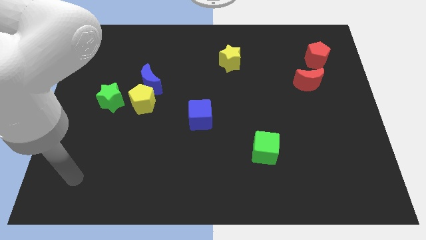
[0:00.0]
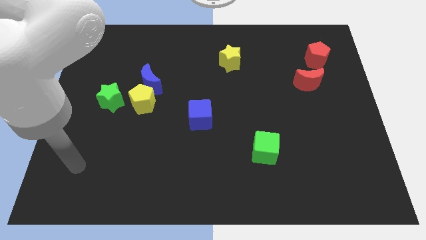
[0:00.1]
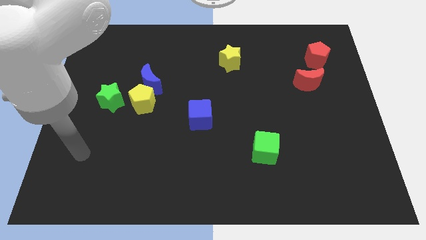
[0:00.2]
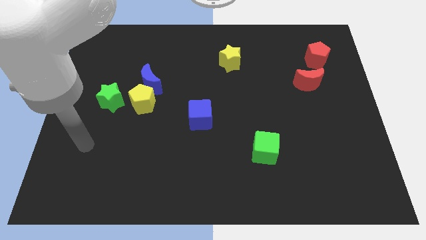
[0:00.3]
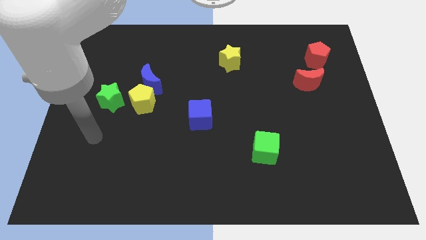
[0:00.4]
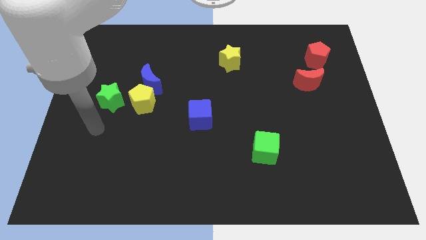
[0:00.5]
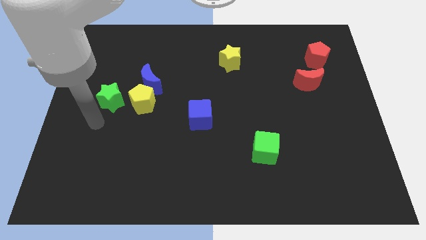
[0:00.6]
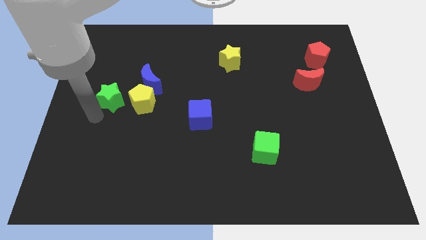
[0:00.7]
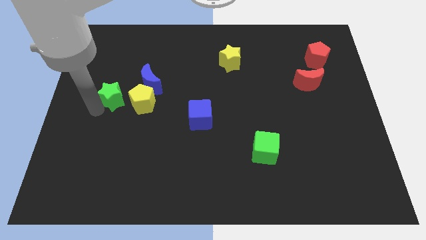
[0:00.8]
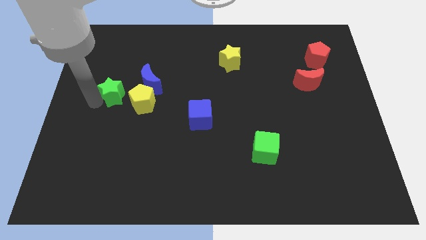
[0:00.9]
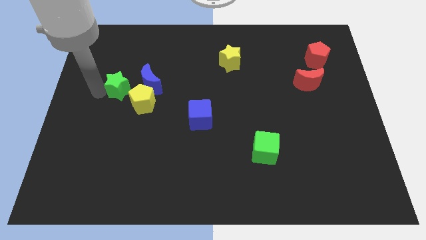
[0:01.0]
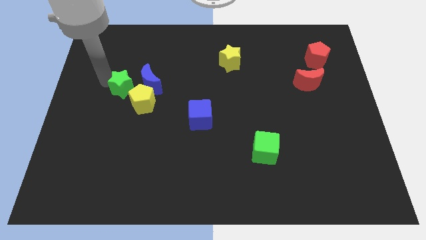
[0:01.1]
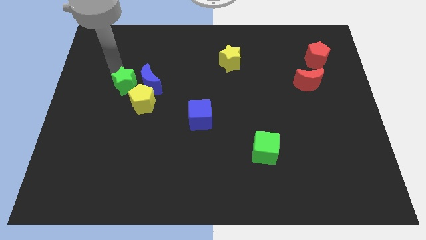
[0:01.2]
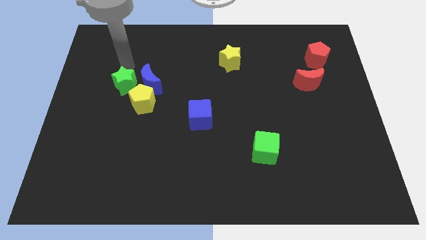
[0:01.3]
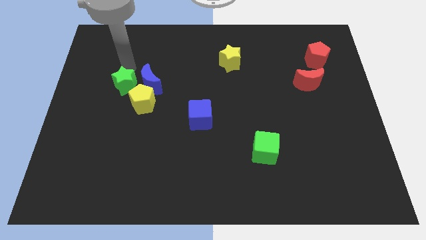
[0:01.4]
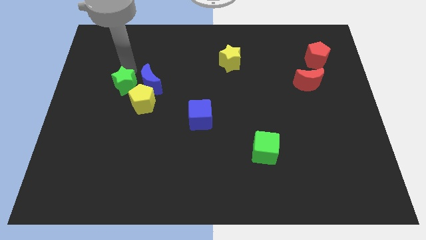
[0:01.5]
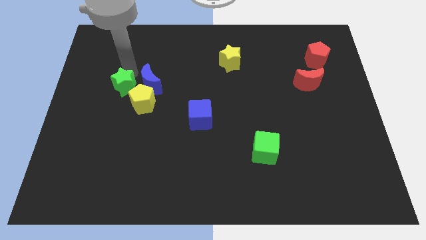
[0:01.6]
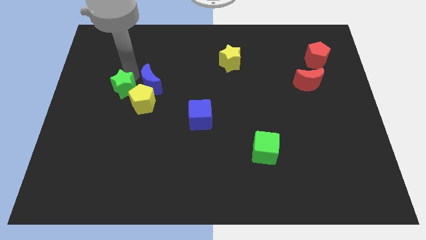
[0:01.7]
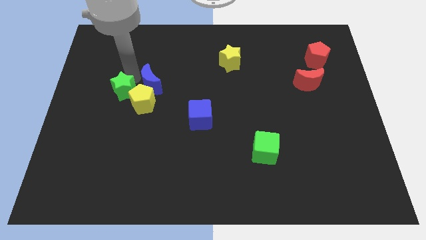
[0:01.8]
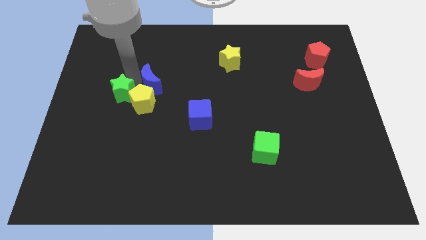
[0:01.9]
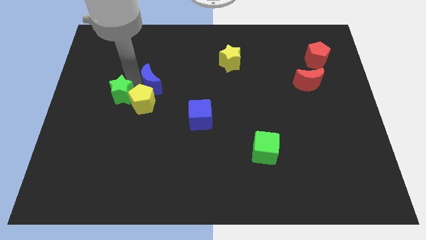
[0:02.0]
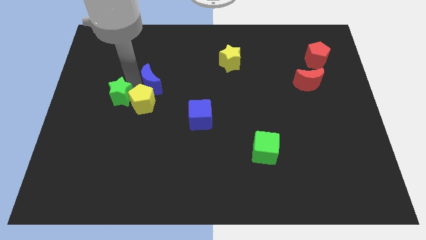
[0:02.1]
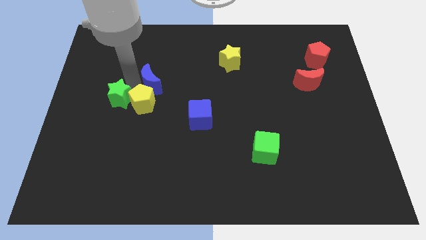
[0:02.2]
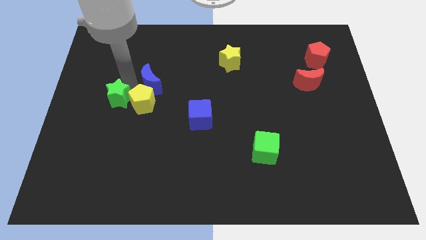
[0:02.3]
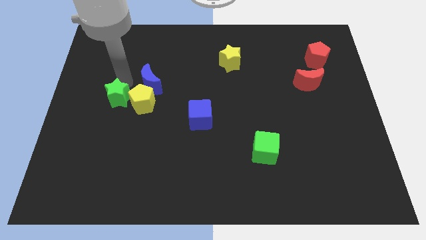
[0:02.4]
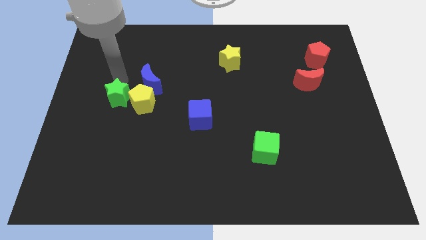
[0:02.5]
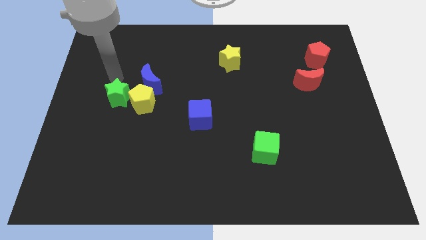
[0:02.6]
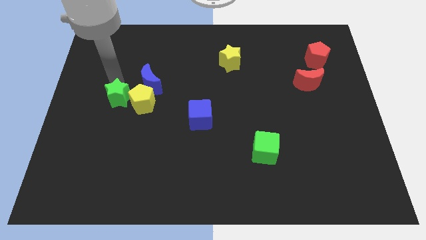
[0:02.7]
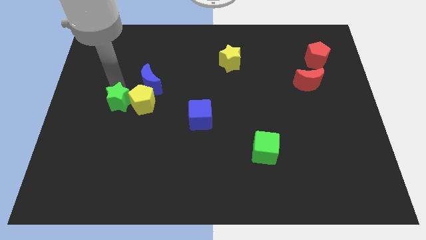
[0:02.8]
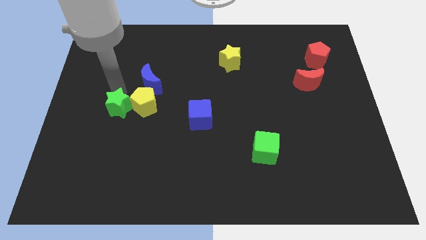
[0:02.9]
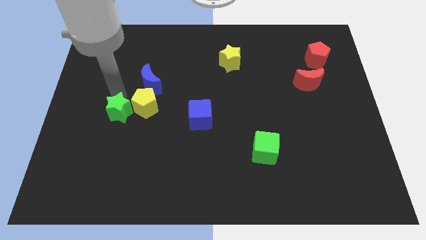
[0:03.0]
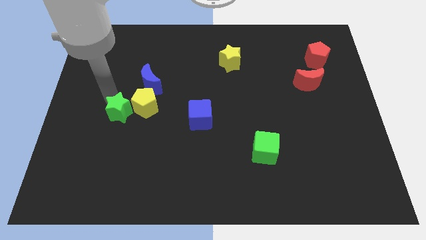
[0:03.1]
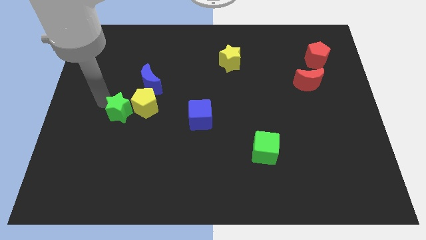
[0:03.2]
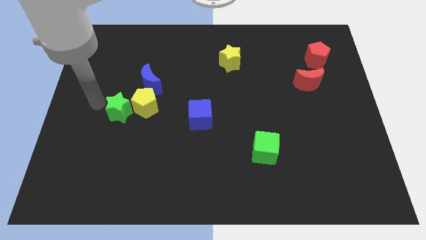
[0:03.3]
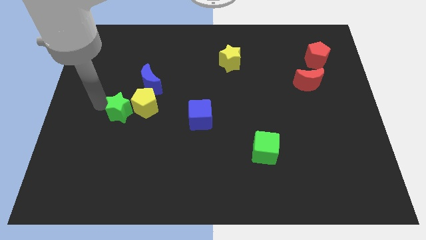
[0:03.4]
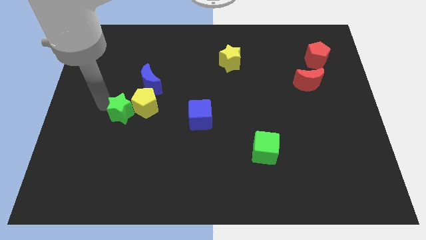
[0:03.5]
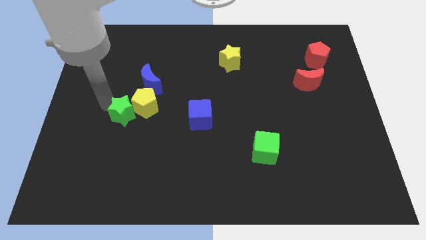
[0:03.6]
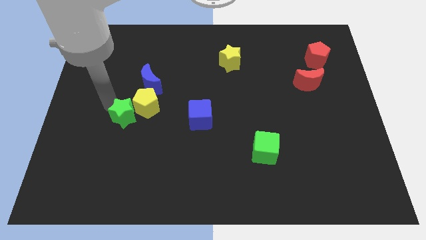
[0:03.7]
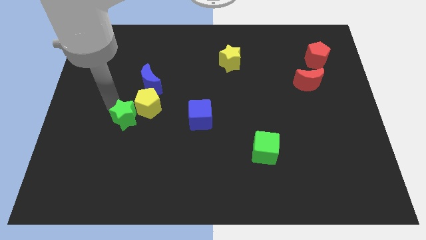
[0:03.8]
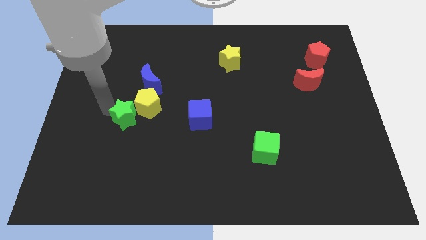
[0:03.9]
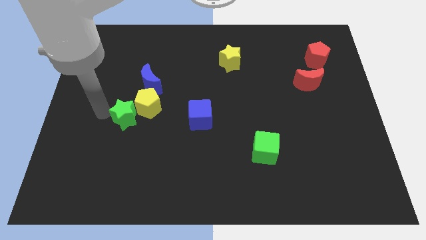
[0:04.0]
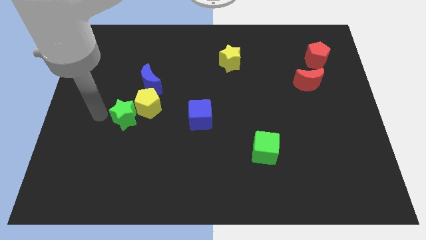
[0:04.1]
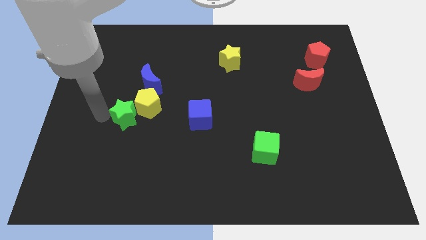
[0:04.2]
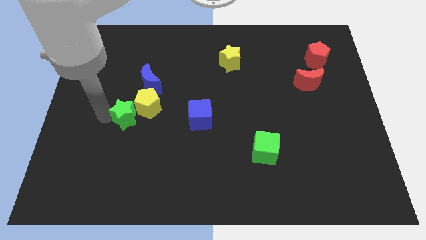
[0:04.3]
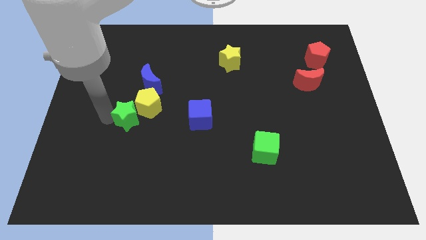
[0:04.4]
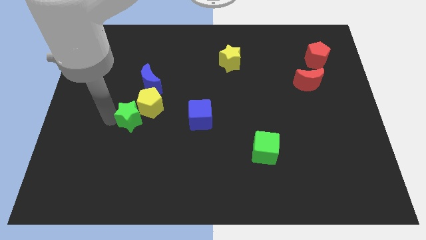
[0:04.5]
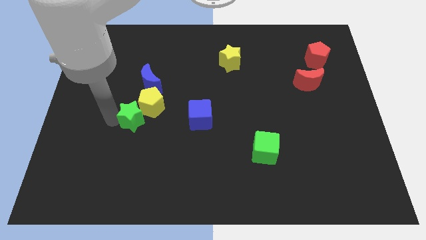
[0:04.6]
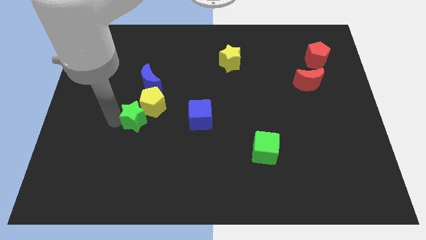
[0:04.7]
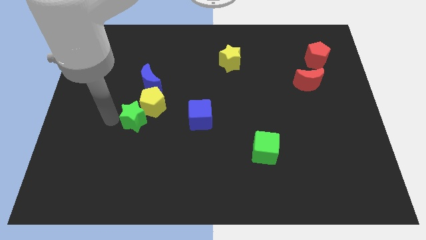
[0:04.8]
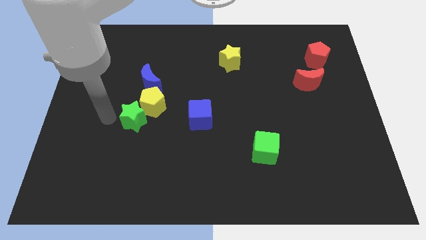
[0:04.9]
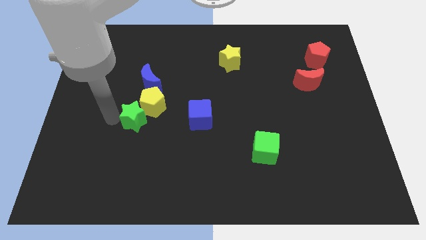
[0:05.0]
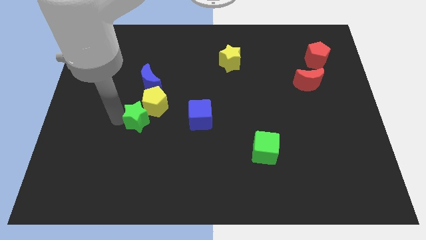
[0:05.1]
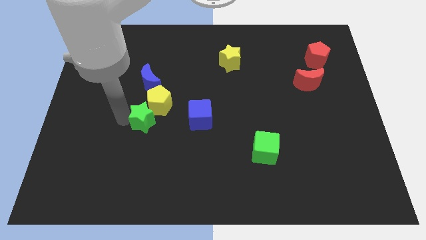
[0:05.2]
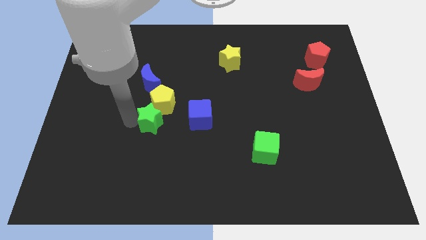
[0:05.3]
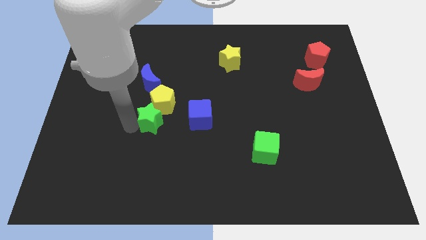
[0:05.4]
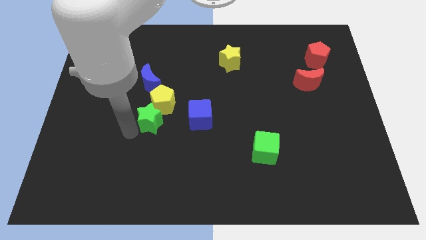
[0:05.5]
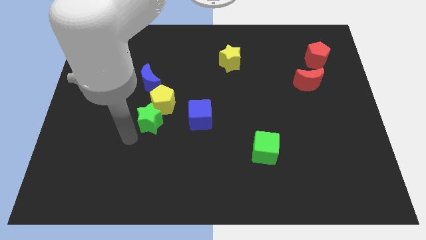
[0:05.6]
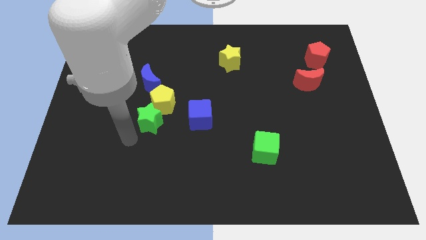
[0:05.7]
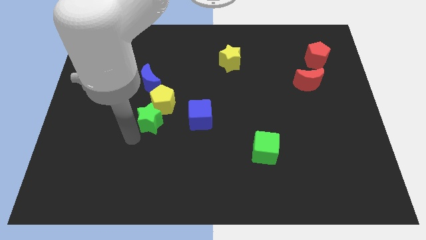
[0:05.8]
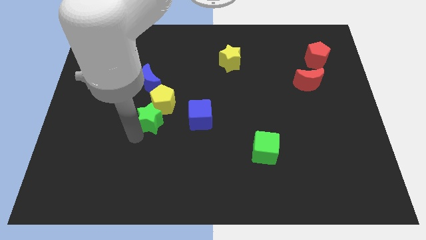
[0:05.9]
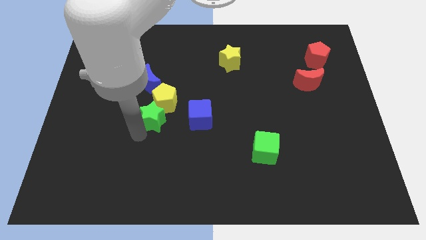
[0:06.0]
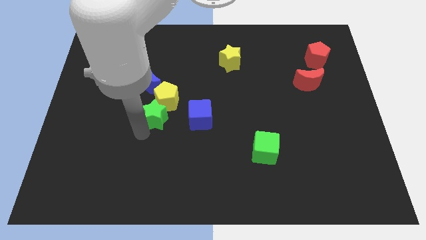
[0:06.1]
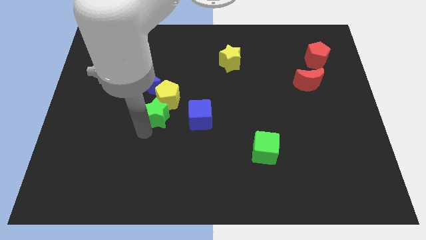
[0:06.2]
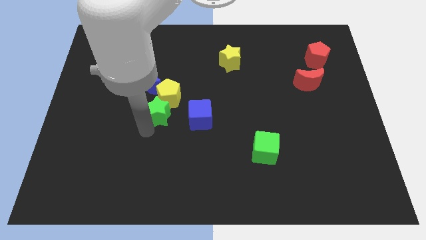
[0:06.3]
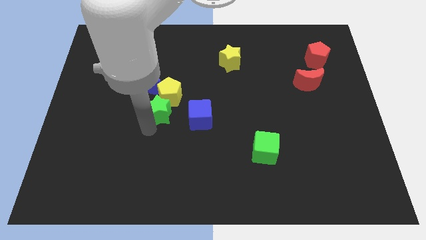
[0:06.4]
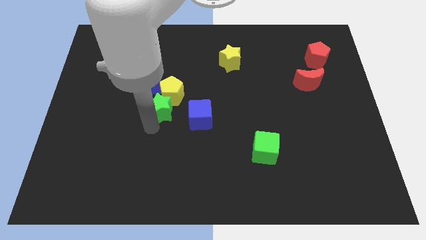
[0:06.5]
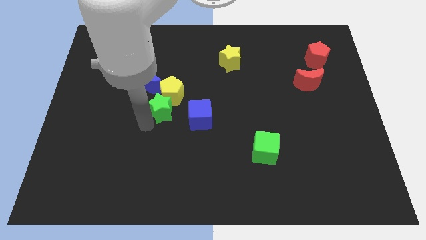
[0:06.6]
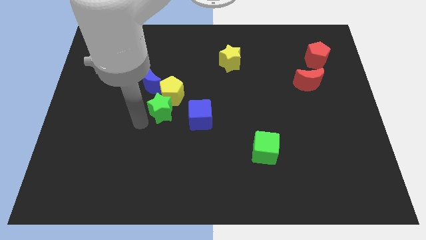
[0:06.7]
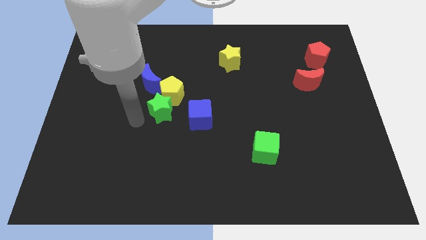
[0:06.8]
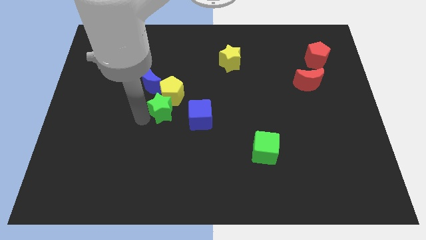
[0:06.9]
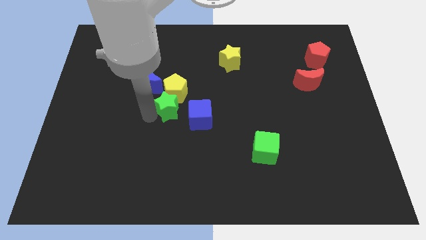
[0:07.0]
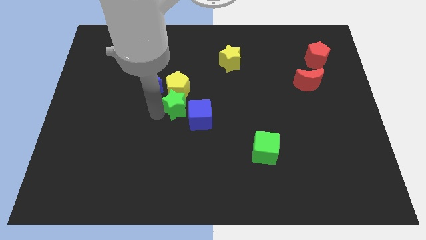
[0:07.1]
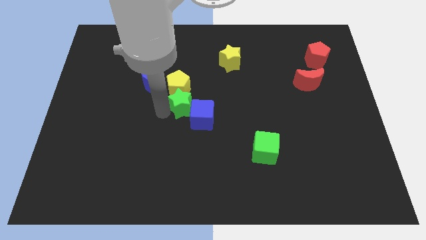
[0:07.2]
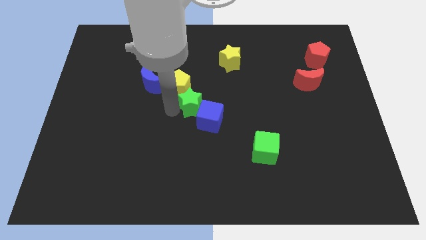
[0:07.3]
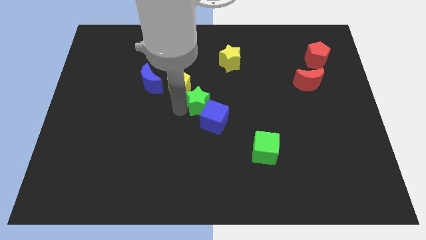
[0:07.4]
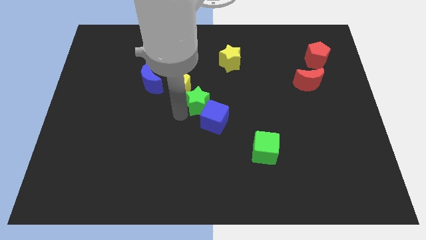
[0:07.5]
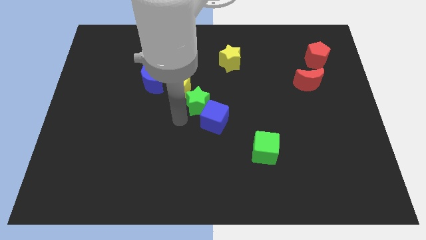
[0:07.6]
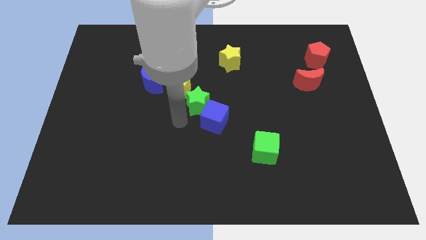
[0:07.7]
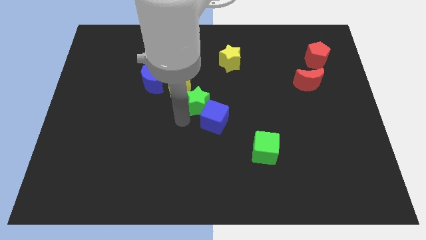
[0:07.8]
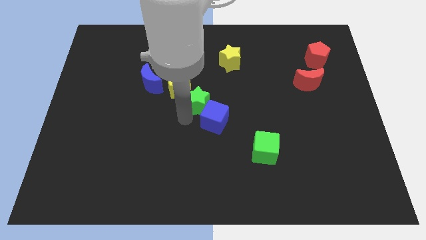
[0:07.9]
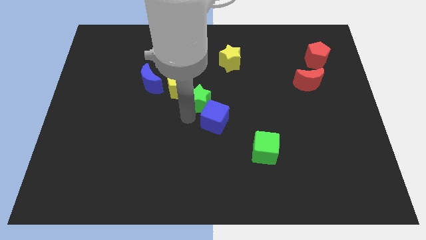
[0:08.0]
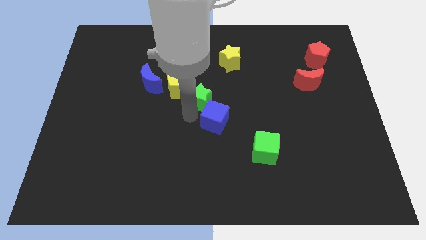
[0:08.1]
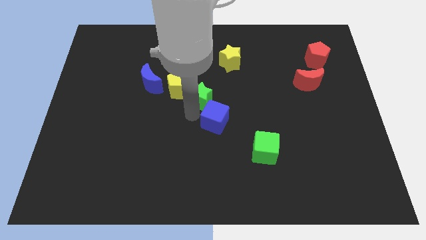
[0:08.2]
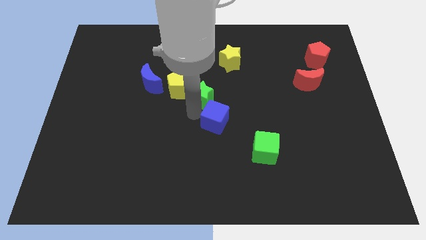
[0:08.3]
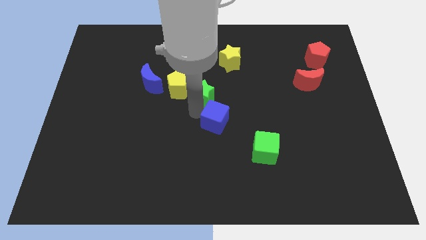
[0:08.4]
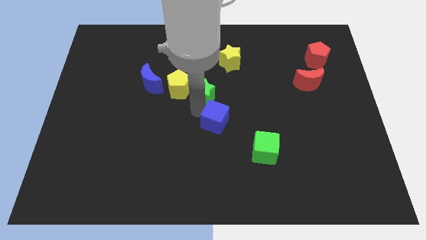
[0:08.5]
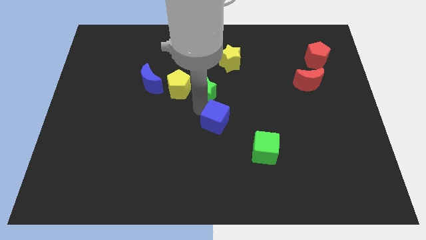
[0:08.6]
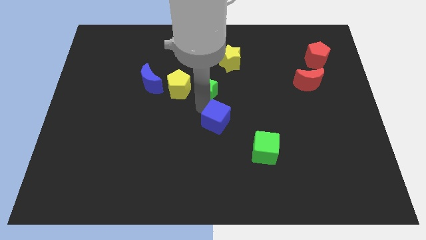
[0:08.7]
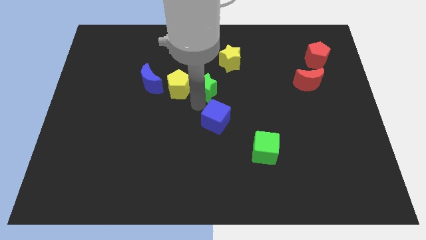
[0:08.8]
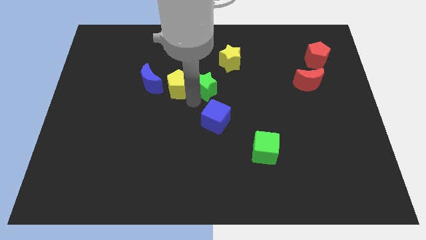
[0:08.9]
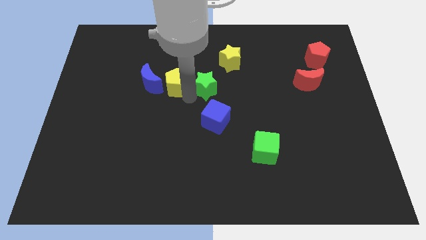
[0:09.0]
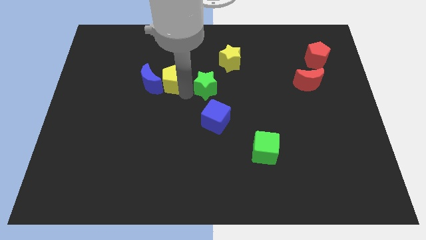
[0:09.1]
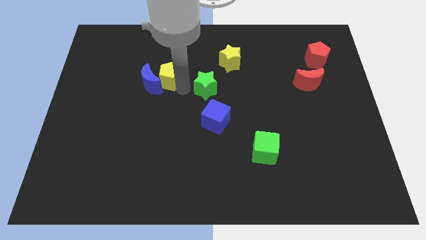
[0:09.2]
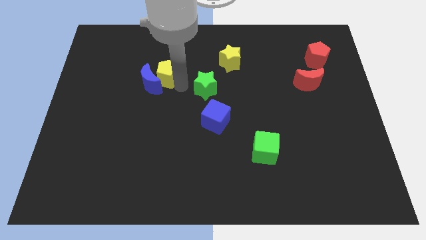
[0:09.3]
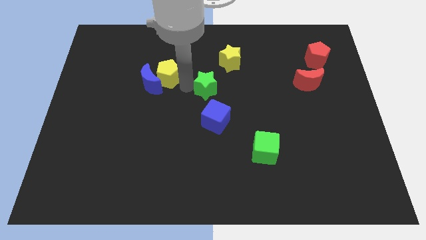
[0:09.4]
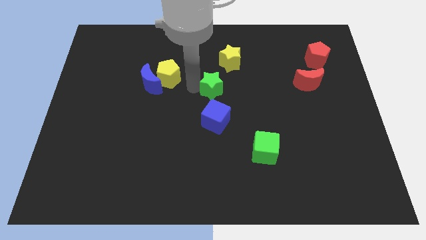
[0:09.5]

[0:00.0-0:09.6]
push the green star to the bottom of the yellow star
